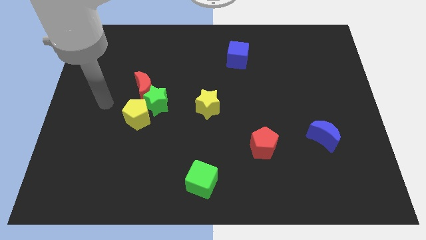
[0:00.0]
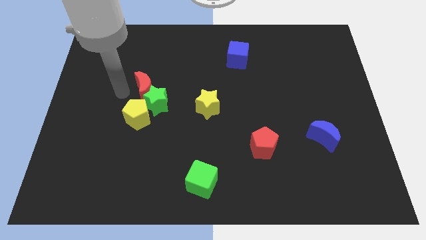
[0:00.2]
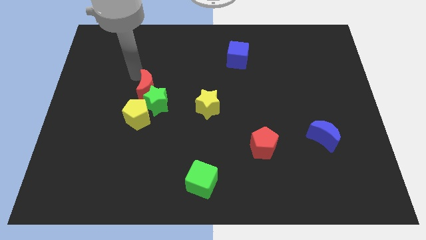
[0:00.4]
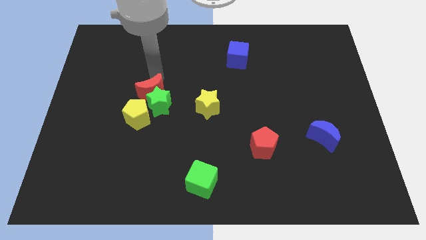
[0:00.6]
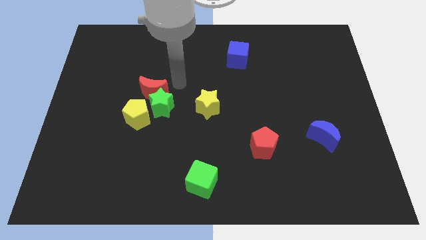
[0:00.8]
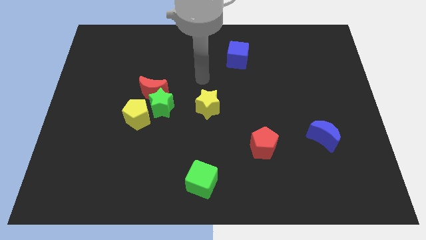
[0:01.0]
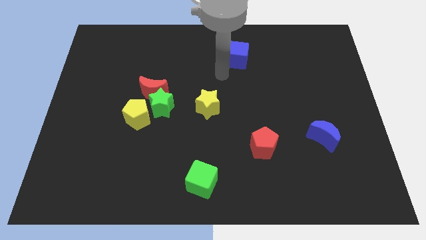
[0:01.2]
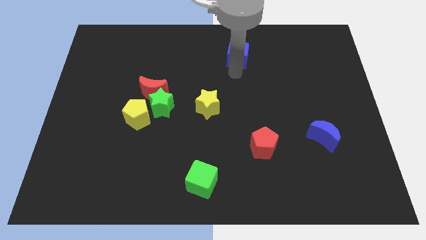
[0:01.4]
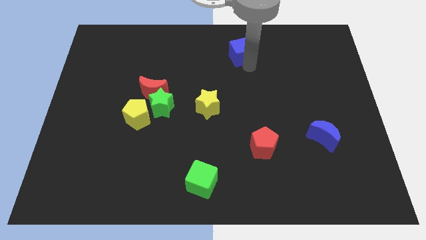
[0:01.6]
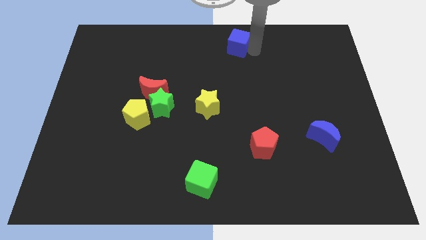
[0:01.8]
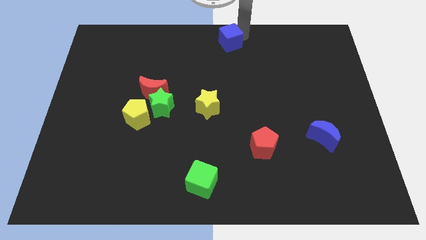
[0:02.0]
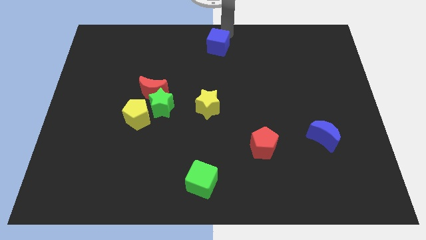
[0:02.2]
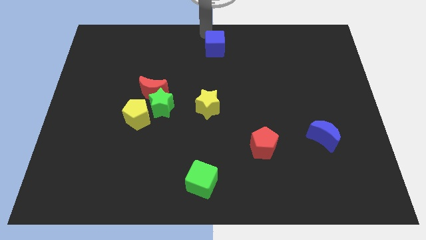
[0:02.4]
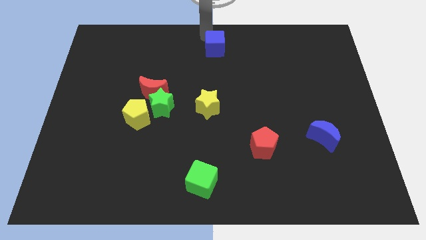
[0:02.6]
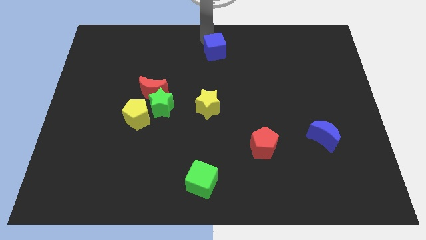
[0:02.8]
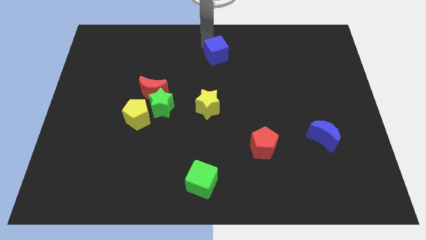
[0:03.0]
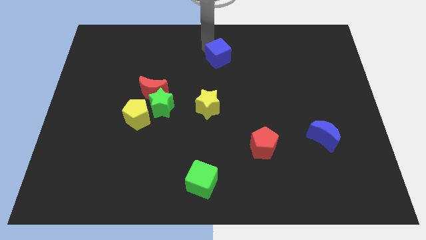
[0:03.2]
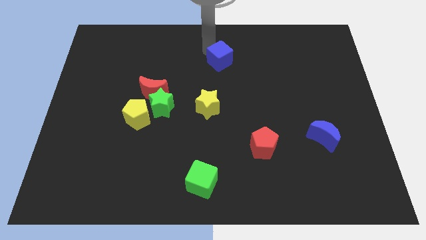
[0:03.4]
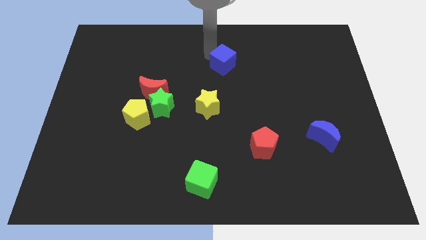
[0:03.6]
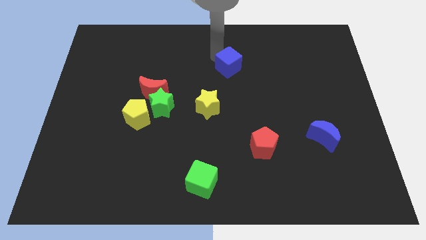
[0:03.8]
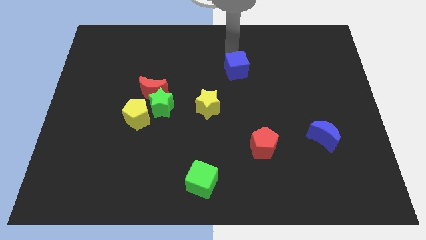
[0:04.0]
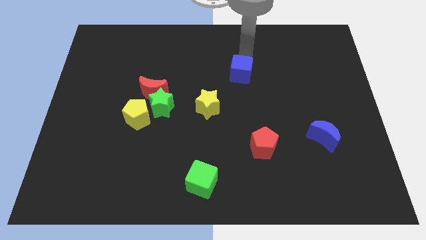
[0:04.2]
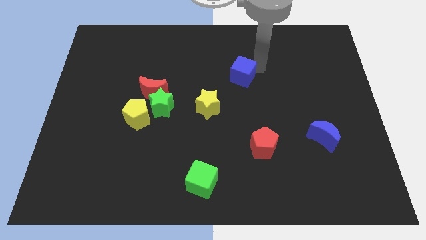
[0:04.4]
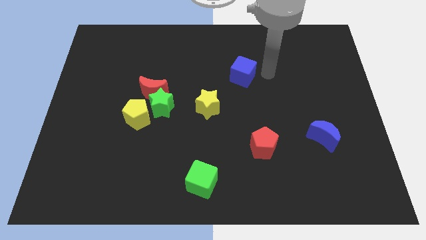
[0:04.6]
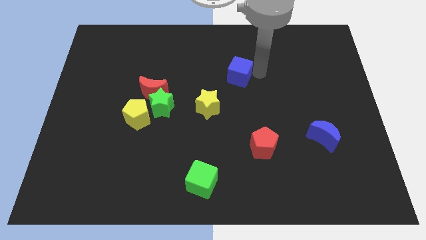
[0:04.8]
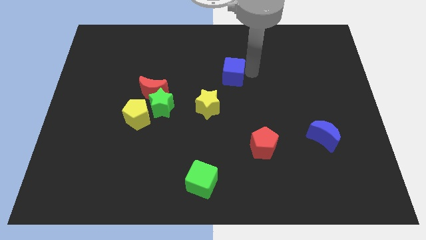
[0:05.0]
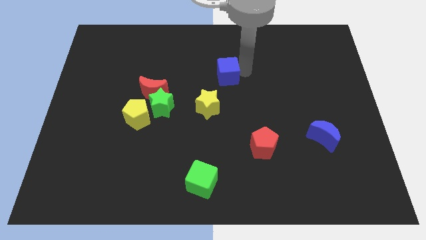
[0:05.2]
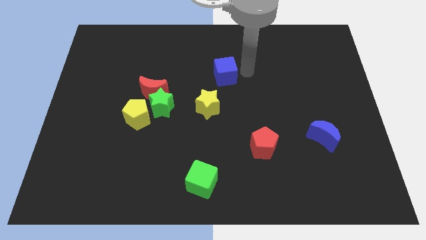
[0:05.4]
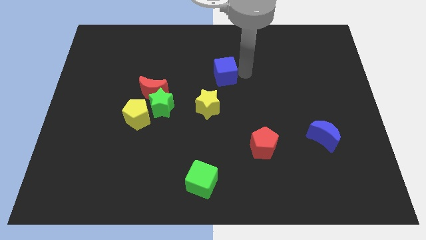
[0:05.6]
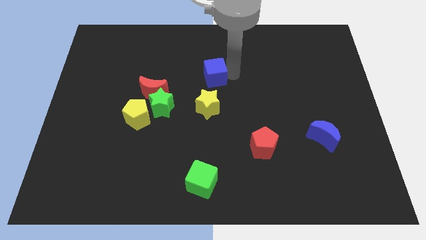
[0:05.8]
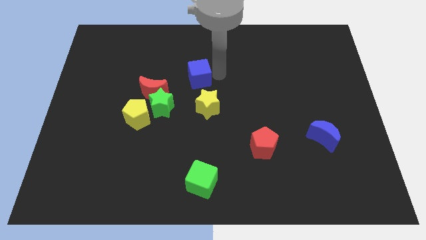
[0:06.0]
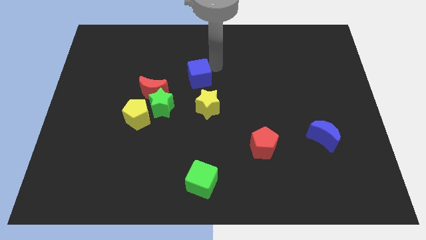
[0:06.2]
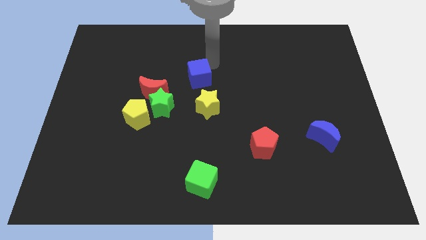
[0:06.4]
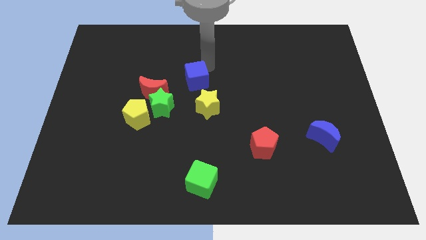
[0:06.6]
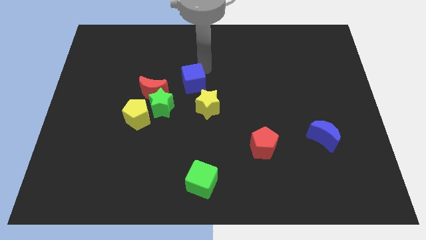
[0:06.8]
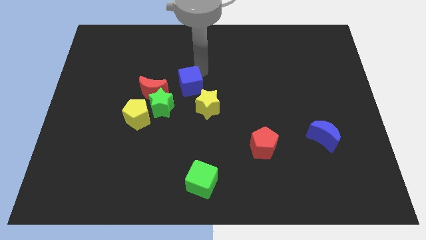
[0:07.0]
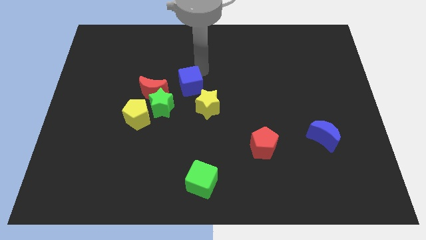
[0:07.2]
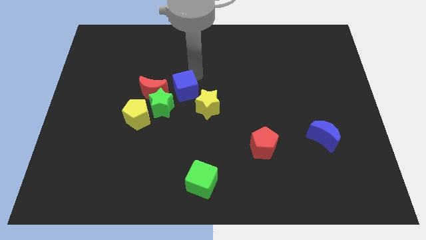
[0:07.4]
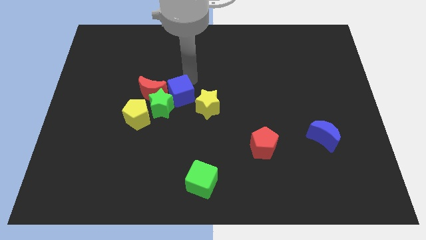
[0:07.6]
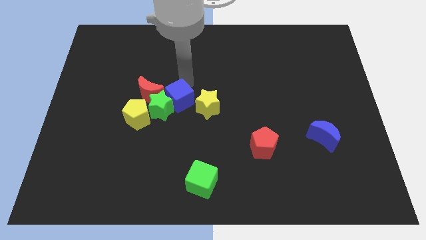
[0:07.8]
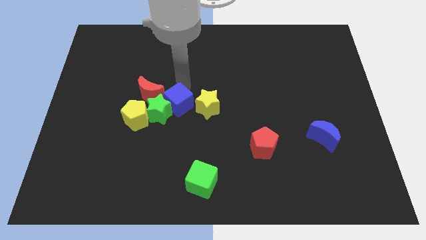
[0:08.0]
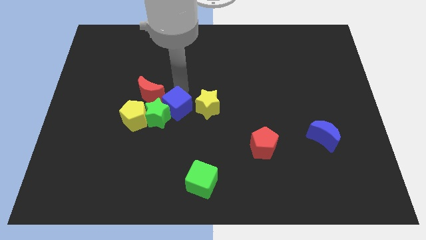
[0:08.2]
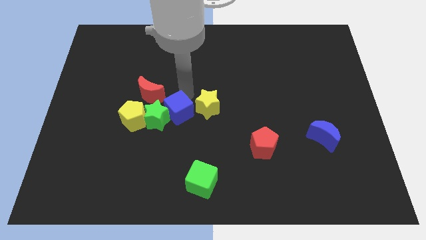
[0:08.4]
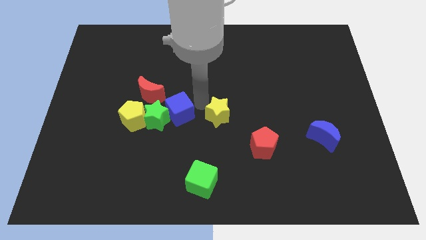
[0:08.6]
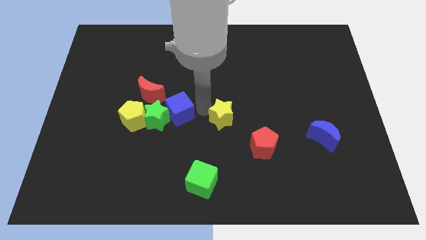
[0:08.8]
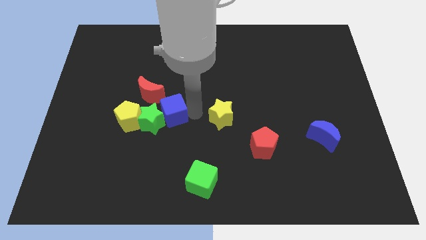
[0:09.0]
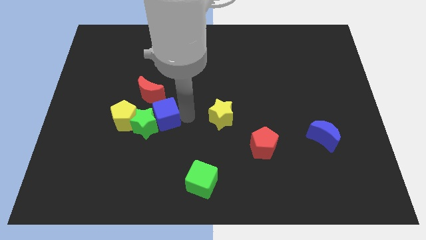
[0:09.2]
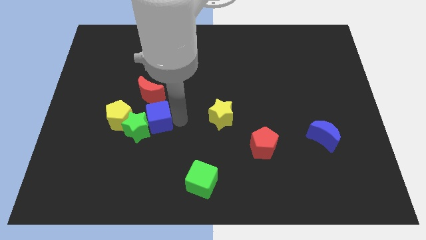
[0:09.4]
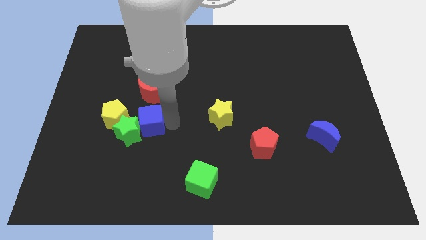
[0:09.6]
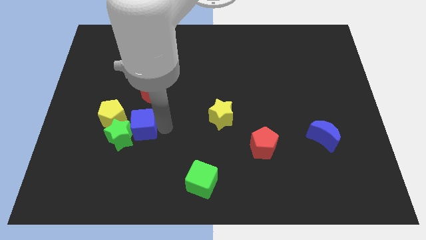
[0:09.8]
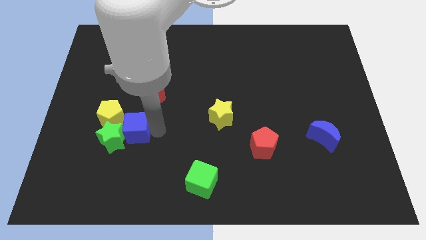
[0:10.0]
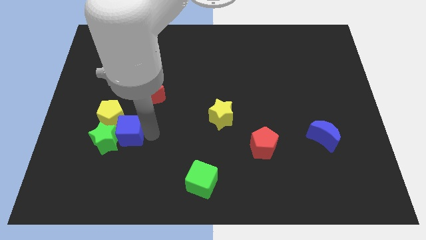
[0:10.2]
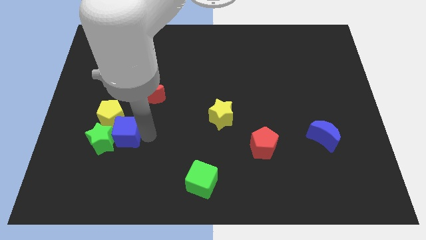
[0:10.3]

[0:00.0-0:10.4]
push the blue cube to the yellow pentagon

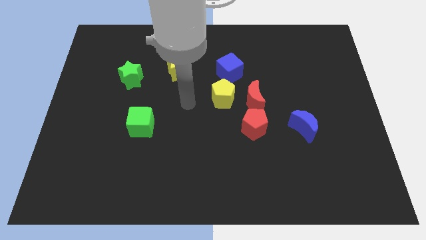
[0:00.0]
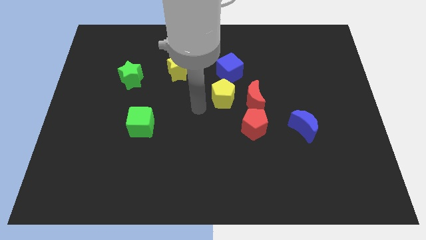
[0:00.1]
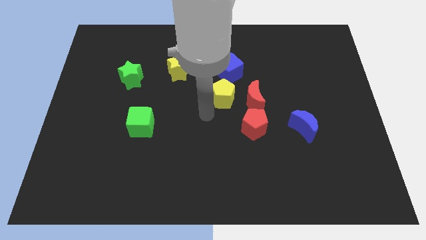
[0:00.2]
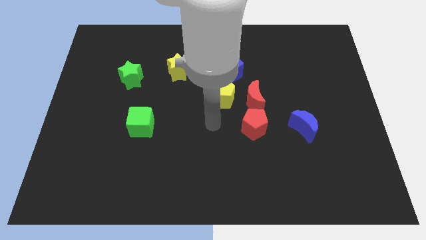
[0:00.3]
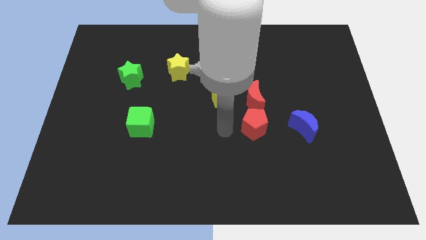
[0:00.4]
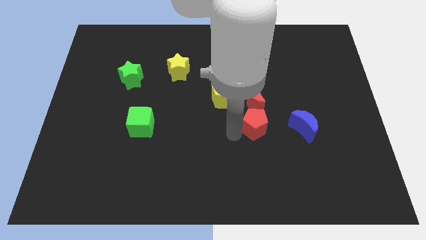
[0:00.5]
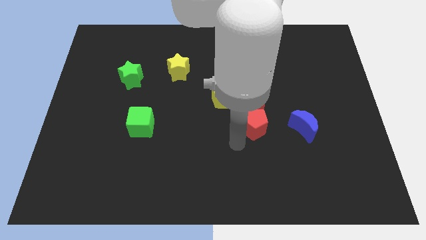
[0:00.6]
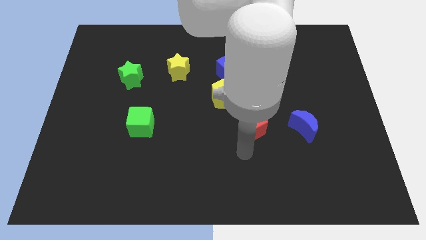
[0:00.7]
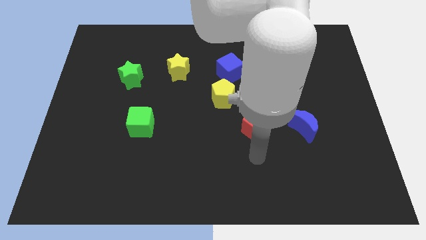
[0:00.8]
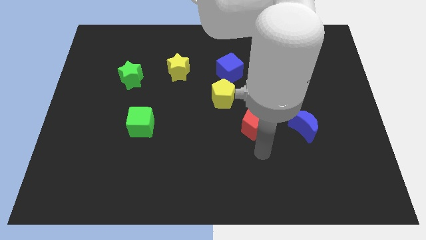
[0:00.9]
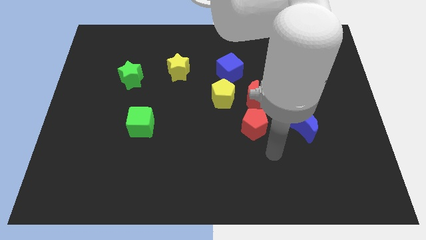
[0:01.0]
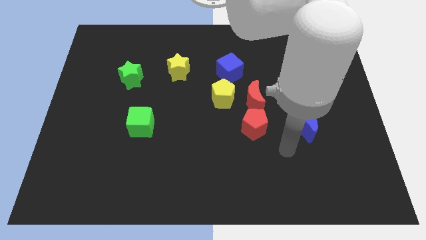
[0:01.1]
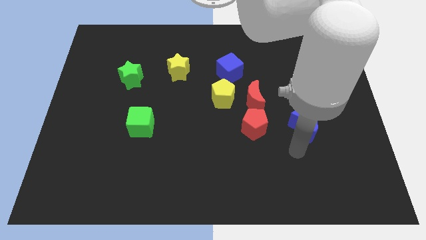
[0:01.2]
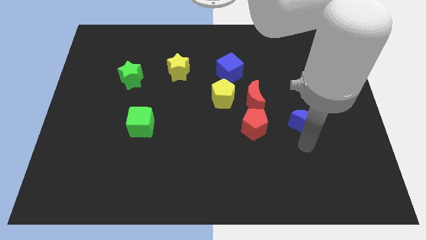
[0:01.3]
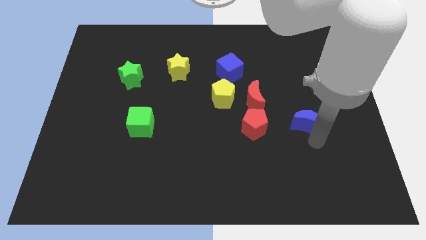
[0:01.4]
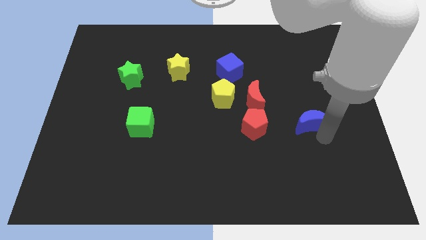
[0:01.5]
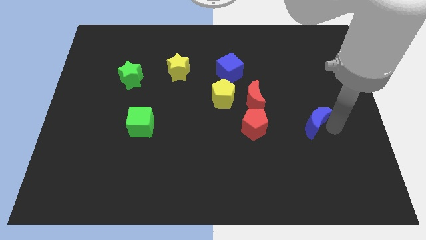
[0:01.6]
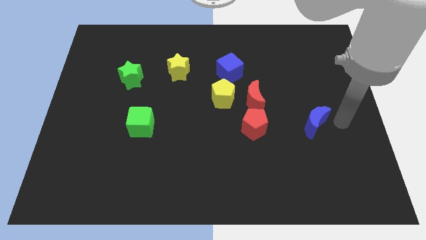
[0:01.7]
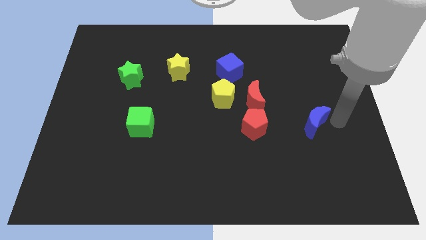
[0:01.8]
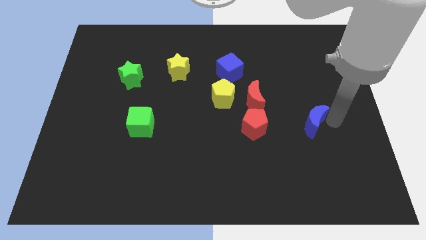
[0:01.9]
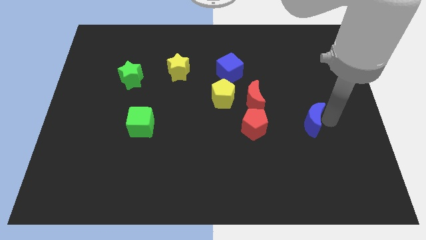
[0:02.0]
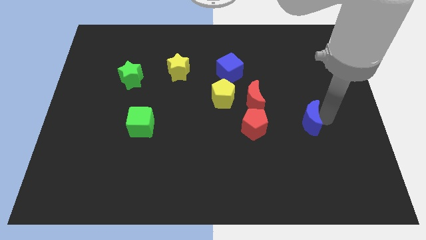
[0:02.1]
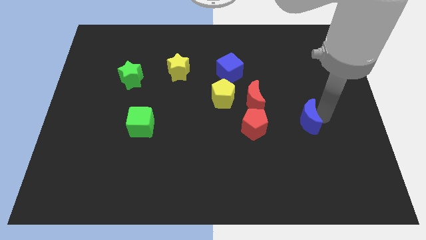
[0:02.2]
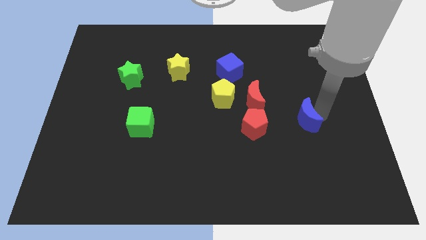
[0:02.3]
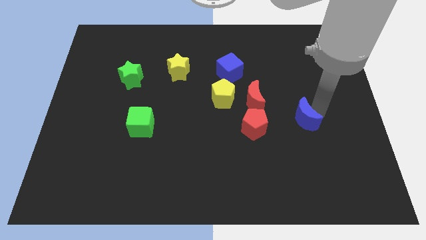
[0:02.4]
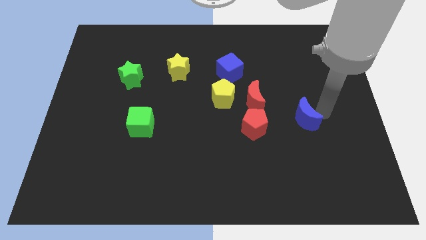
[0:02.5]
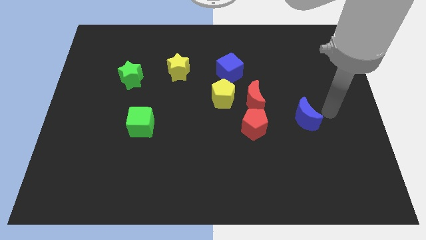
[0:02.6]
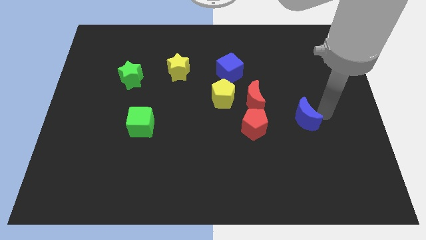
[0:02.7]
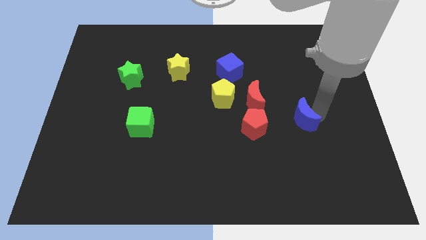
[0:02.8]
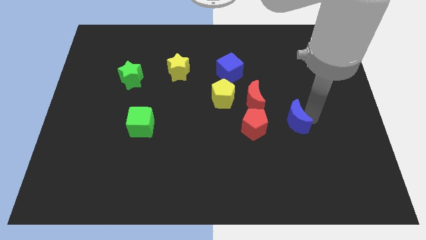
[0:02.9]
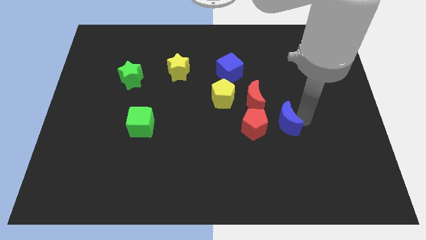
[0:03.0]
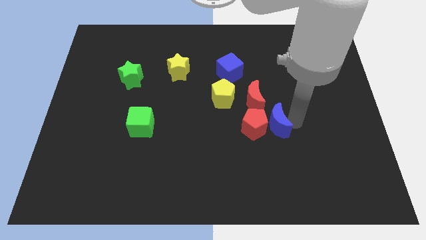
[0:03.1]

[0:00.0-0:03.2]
slide the blue moon towards the red pentagon
